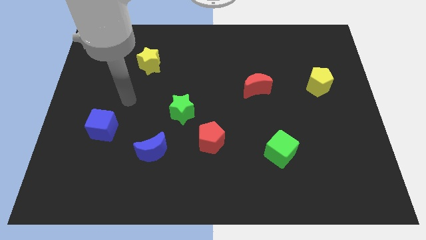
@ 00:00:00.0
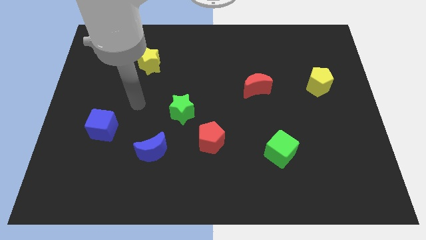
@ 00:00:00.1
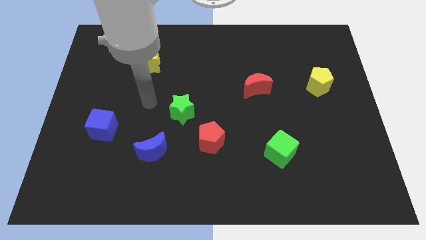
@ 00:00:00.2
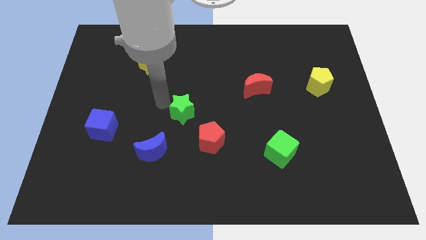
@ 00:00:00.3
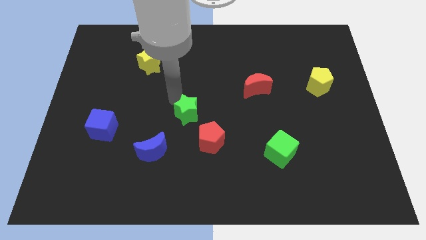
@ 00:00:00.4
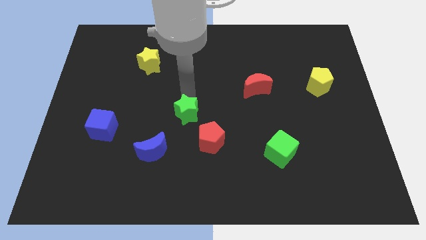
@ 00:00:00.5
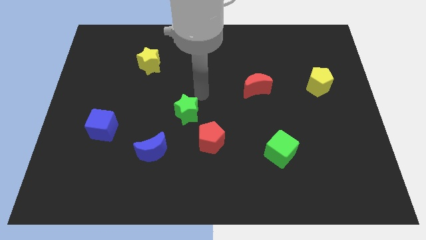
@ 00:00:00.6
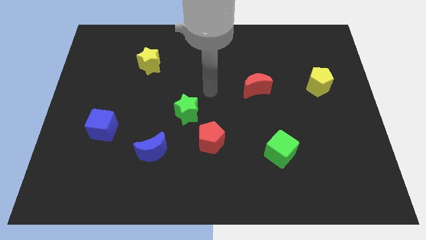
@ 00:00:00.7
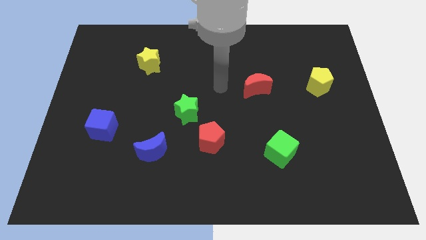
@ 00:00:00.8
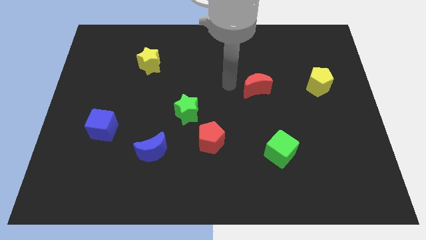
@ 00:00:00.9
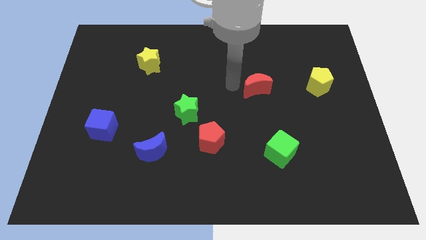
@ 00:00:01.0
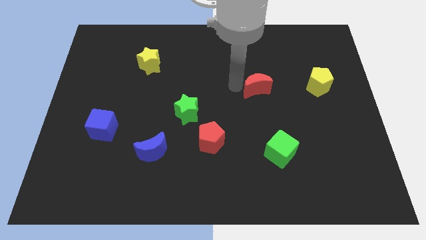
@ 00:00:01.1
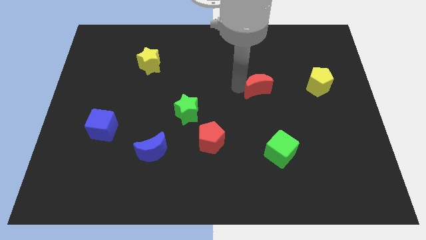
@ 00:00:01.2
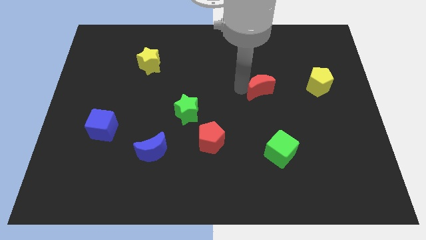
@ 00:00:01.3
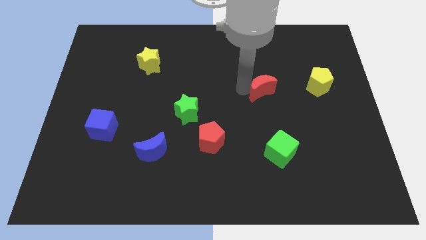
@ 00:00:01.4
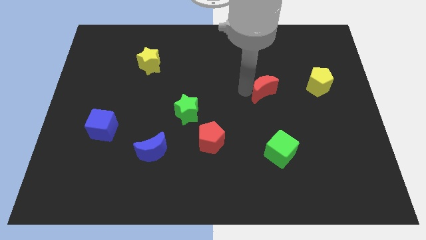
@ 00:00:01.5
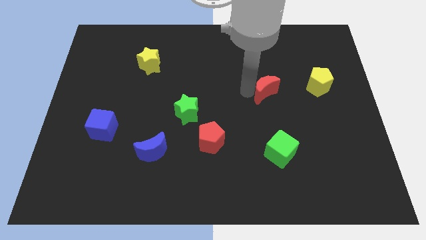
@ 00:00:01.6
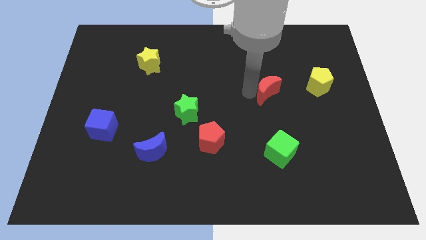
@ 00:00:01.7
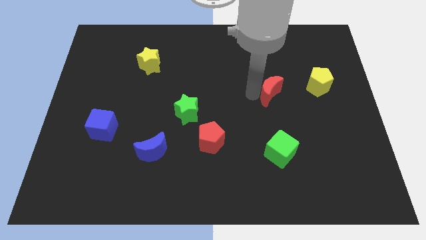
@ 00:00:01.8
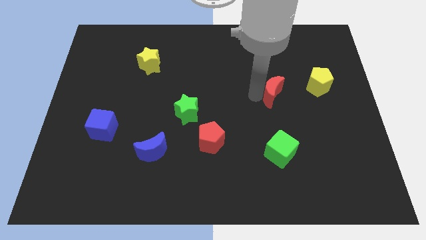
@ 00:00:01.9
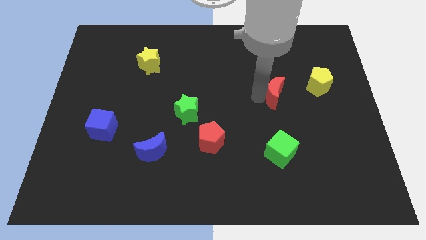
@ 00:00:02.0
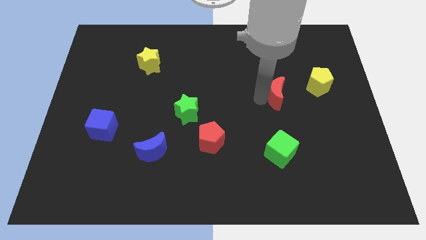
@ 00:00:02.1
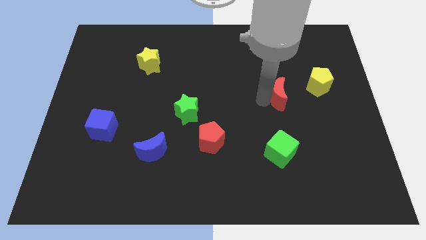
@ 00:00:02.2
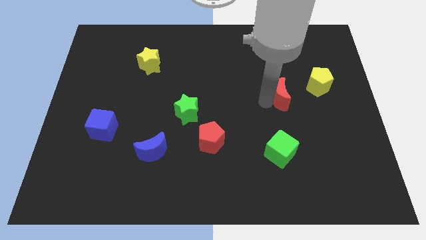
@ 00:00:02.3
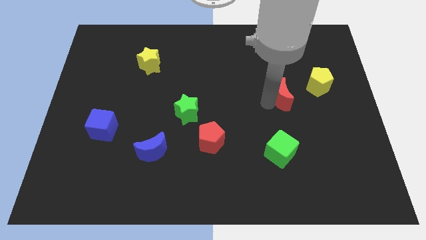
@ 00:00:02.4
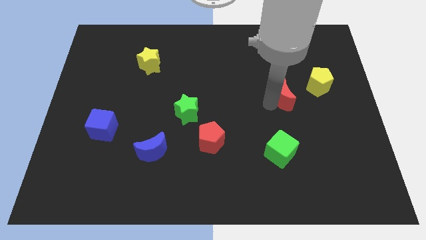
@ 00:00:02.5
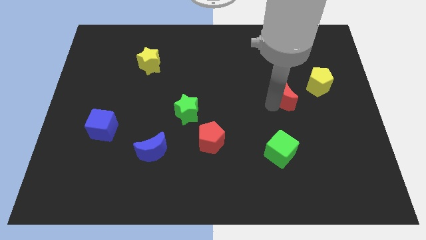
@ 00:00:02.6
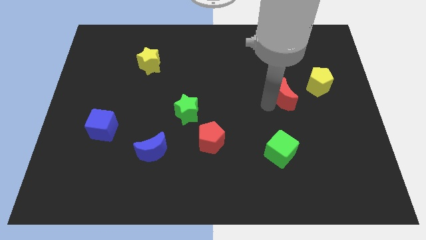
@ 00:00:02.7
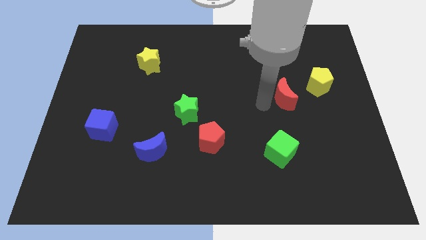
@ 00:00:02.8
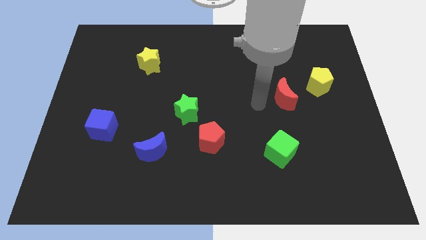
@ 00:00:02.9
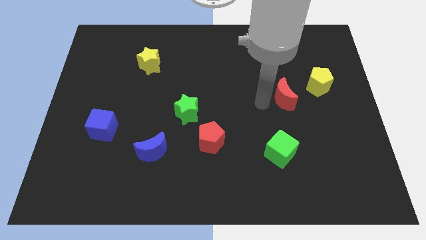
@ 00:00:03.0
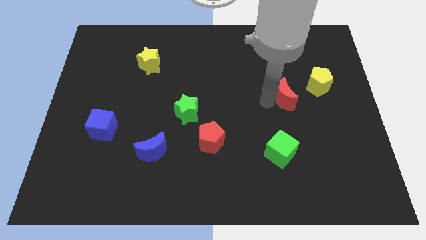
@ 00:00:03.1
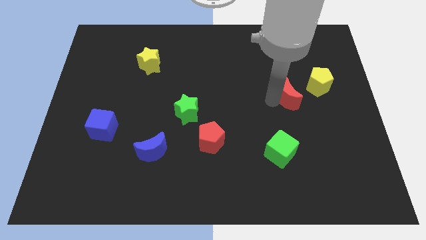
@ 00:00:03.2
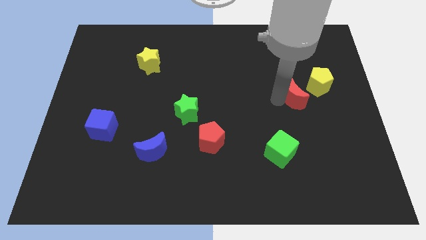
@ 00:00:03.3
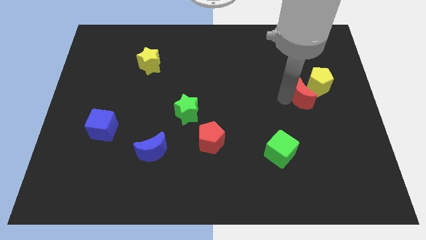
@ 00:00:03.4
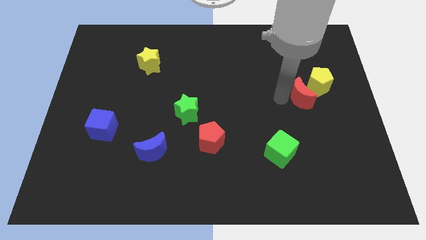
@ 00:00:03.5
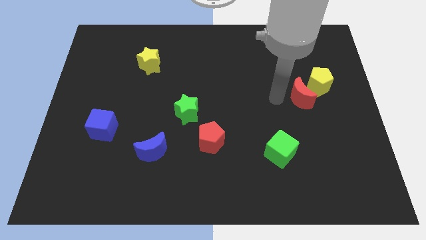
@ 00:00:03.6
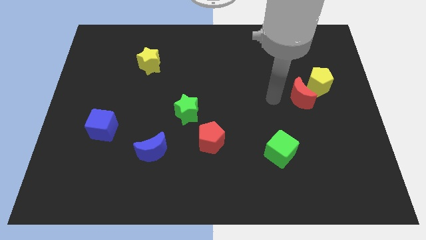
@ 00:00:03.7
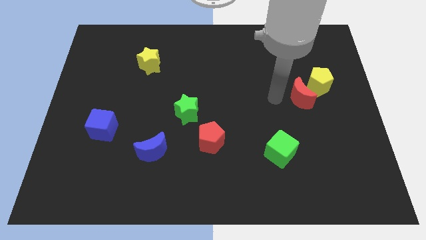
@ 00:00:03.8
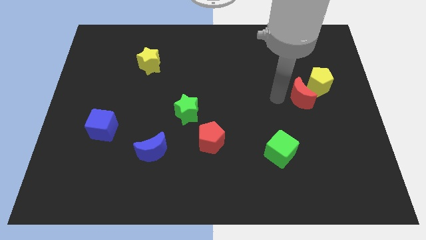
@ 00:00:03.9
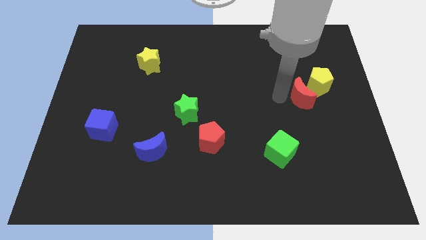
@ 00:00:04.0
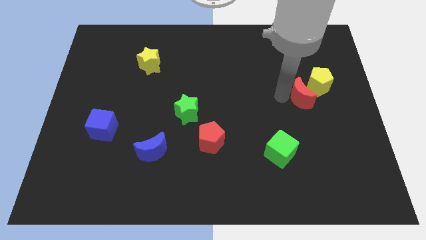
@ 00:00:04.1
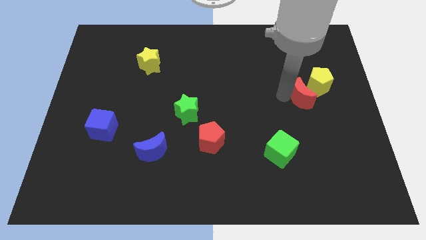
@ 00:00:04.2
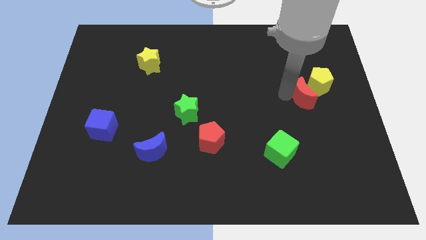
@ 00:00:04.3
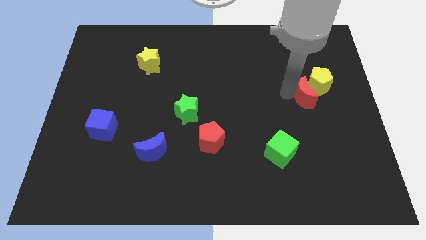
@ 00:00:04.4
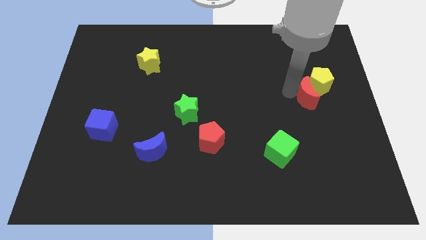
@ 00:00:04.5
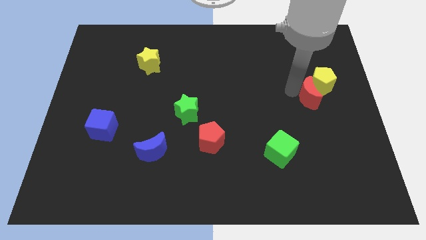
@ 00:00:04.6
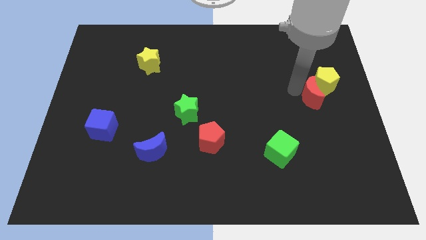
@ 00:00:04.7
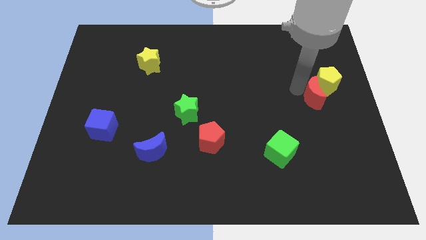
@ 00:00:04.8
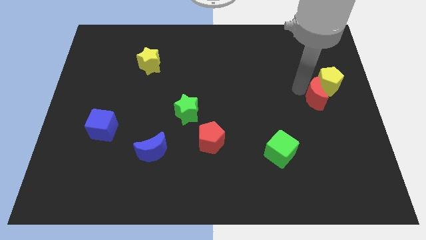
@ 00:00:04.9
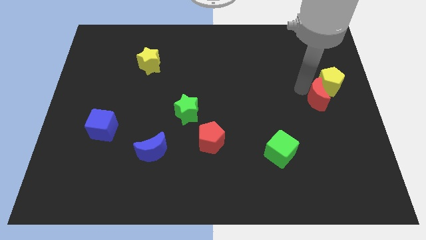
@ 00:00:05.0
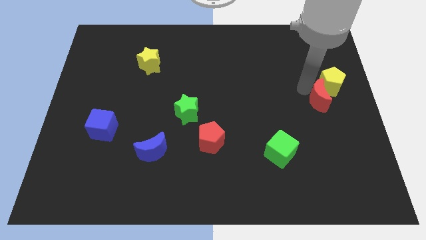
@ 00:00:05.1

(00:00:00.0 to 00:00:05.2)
slide the red moon to the right side of the board
